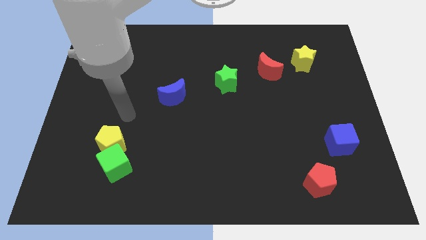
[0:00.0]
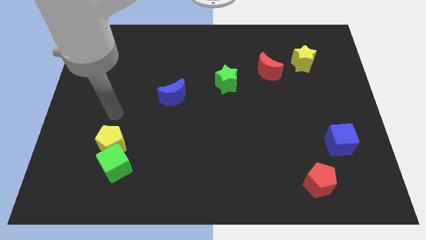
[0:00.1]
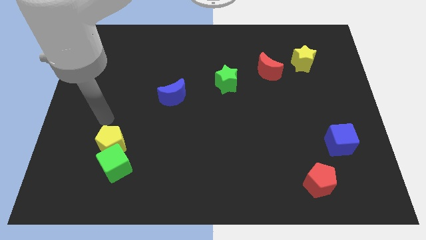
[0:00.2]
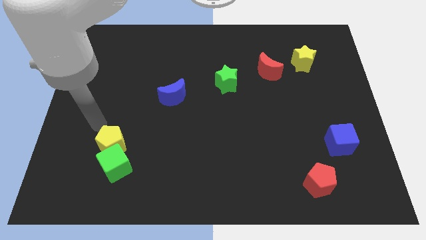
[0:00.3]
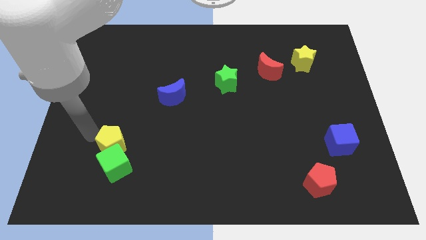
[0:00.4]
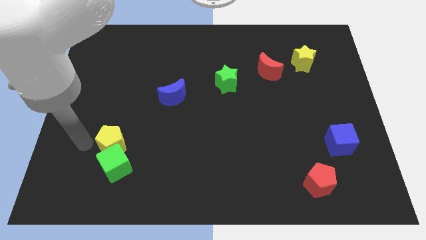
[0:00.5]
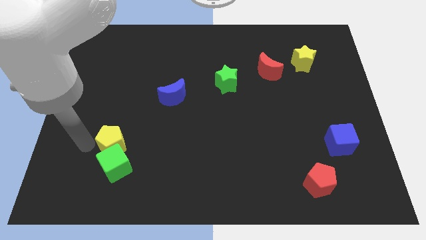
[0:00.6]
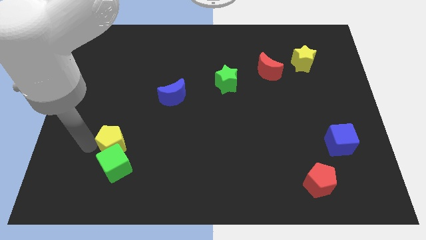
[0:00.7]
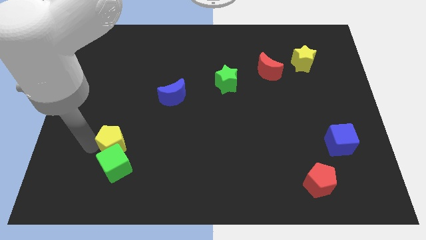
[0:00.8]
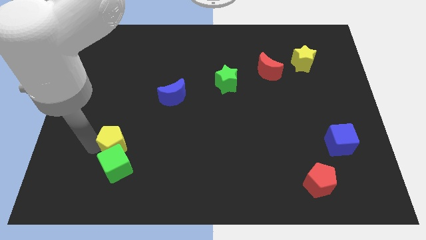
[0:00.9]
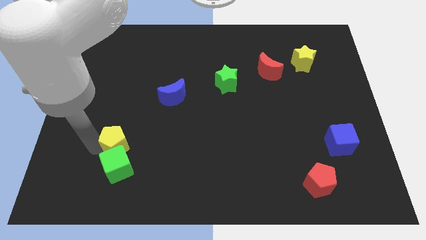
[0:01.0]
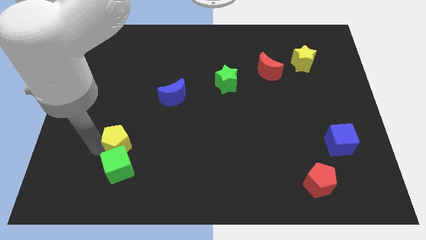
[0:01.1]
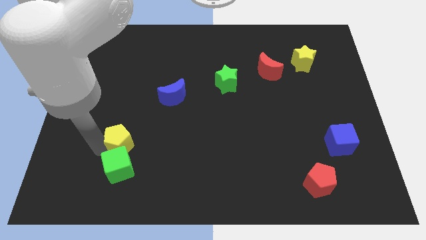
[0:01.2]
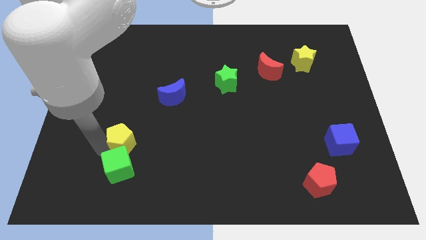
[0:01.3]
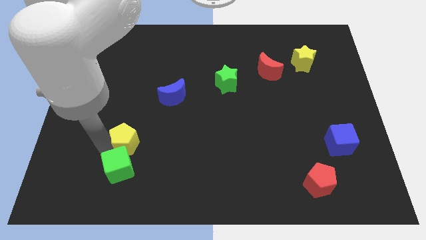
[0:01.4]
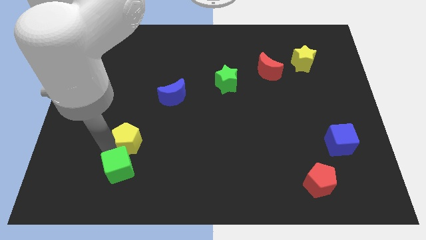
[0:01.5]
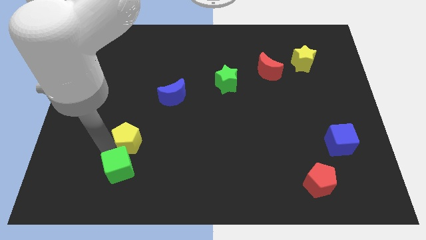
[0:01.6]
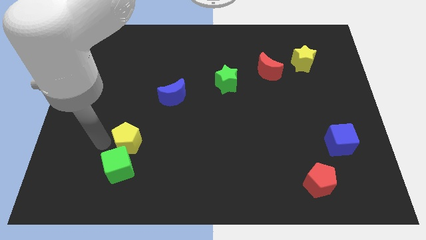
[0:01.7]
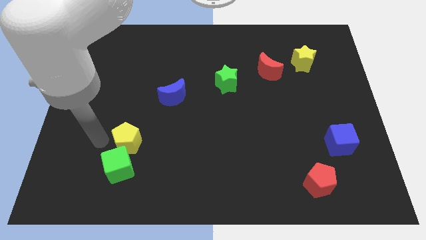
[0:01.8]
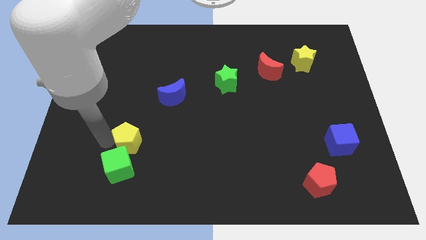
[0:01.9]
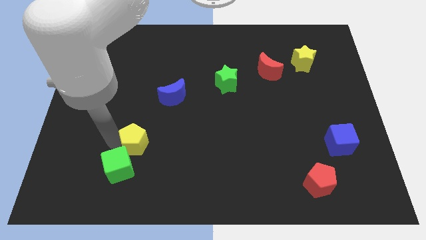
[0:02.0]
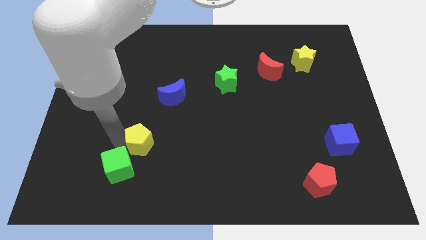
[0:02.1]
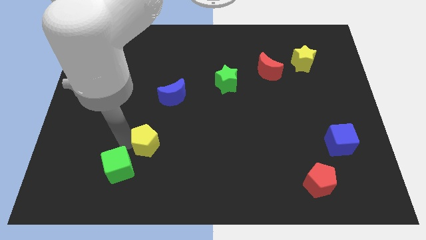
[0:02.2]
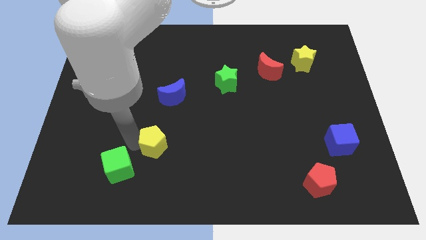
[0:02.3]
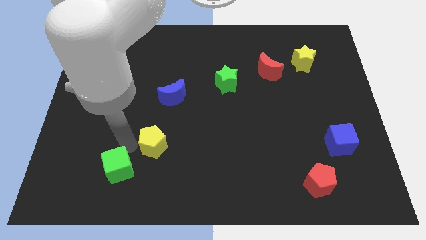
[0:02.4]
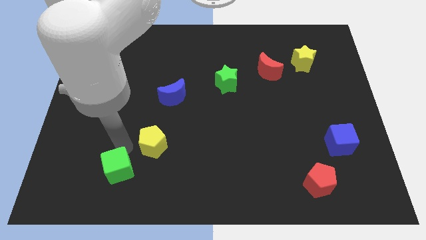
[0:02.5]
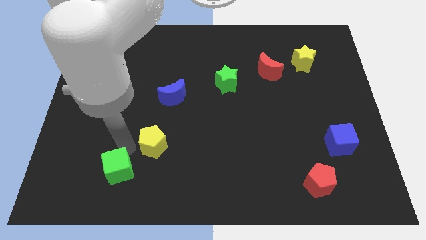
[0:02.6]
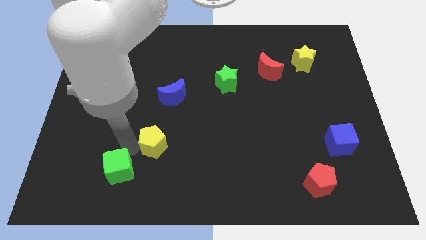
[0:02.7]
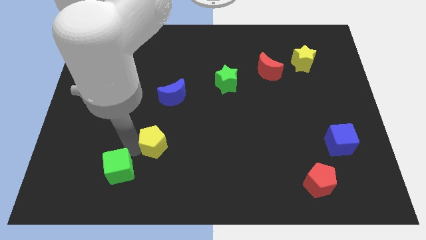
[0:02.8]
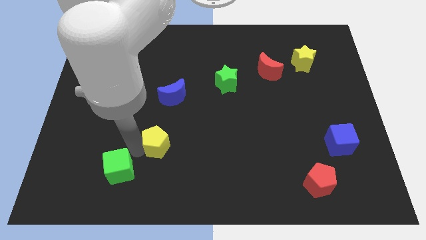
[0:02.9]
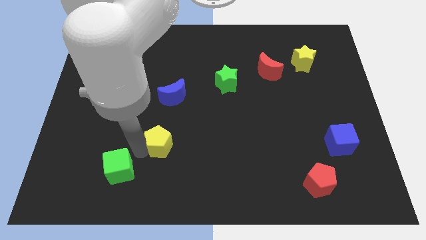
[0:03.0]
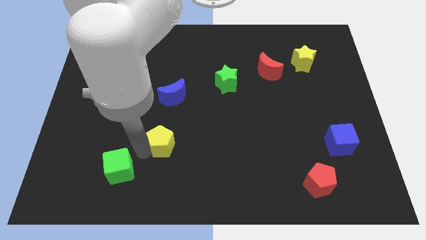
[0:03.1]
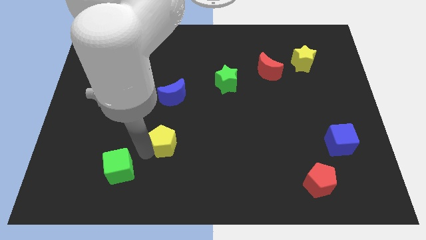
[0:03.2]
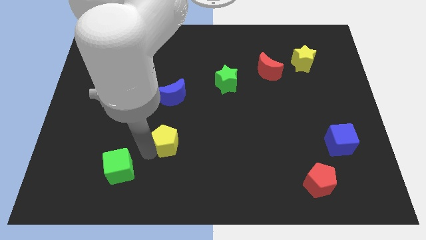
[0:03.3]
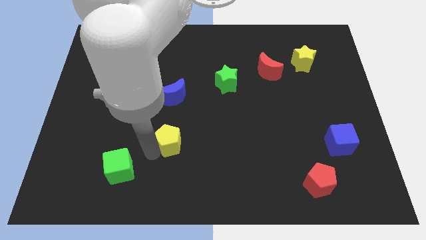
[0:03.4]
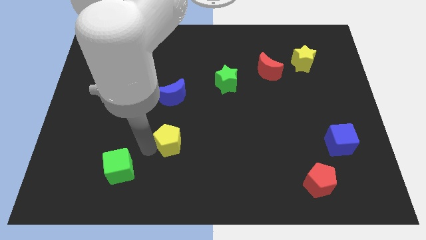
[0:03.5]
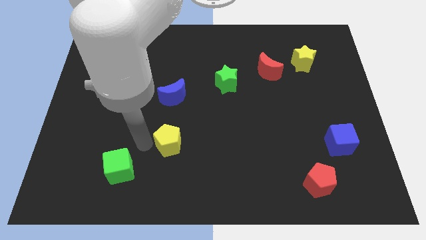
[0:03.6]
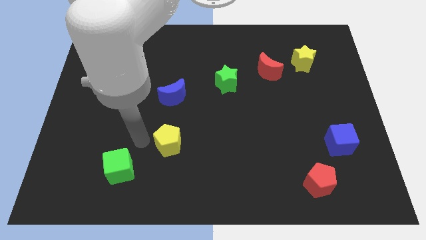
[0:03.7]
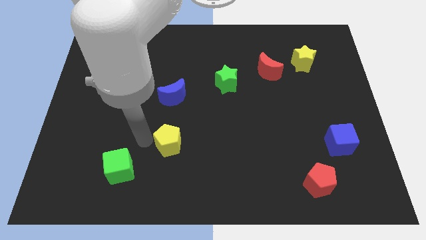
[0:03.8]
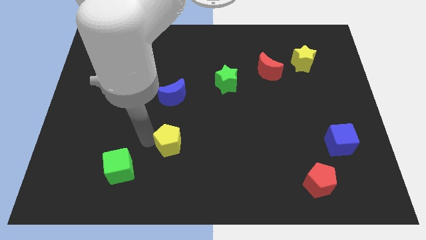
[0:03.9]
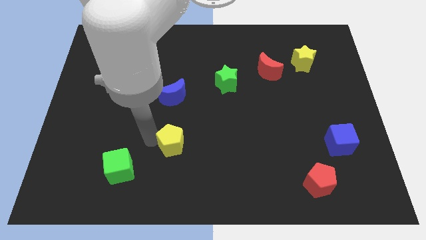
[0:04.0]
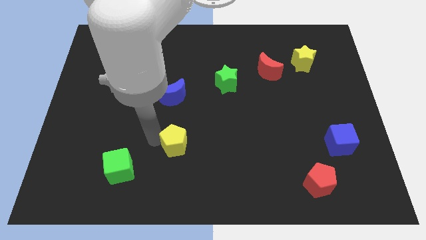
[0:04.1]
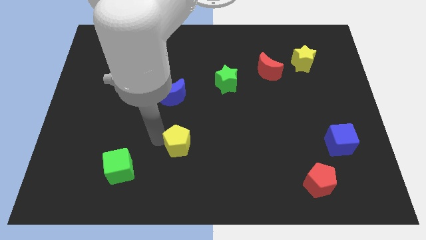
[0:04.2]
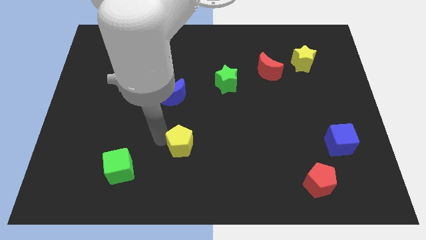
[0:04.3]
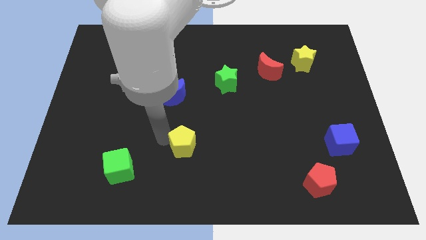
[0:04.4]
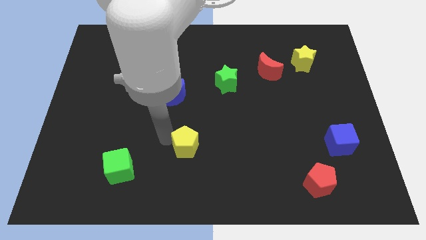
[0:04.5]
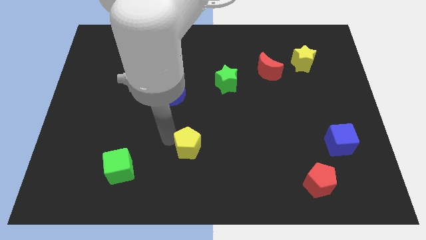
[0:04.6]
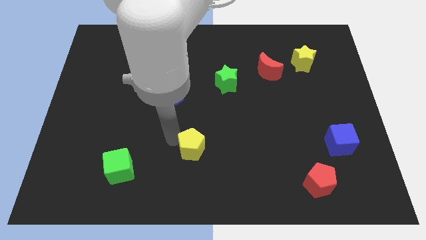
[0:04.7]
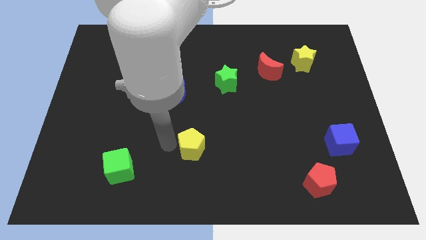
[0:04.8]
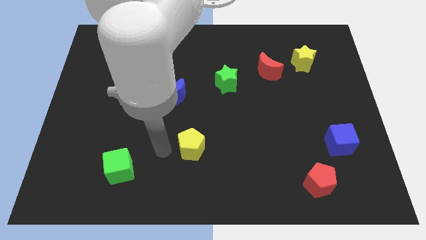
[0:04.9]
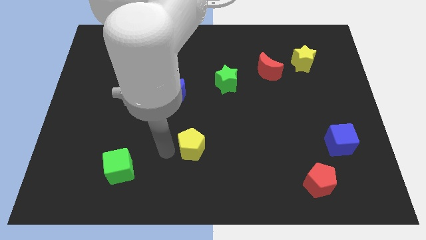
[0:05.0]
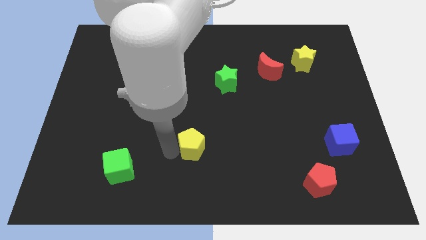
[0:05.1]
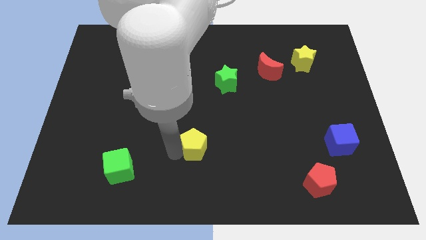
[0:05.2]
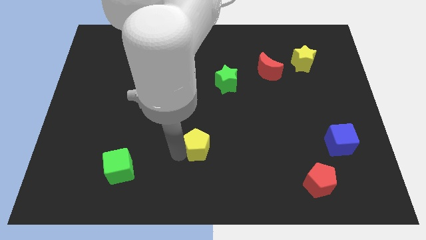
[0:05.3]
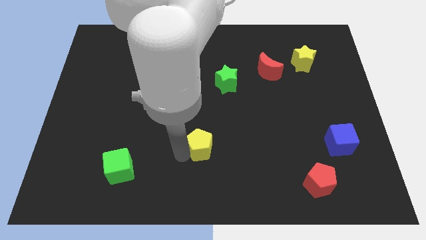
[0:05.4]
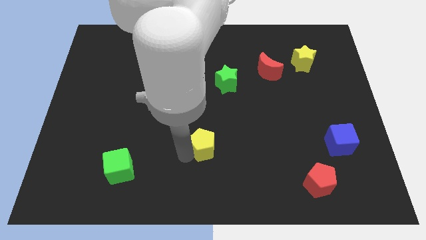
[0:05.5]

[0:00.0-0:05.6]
push the yellow pentagon to the right

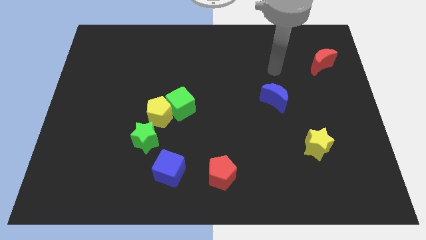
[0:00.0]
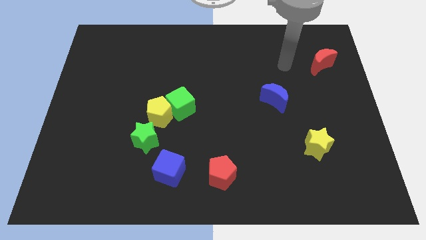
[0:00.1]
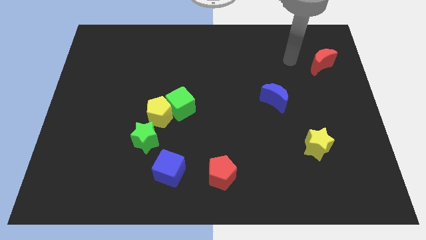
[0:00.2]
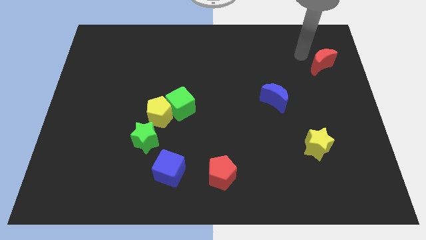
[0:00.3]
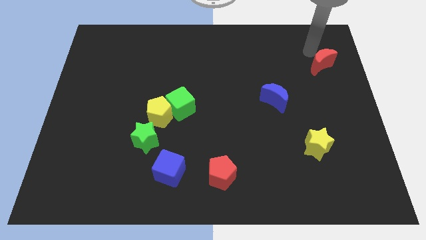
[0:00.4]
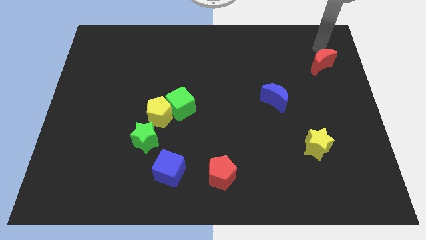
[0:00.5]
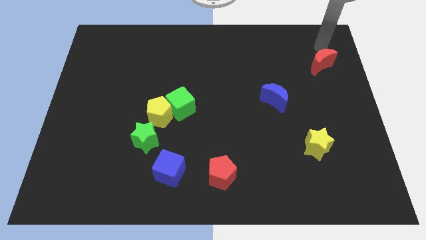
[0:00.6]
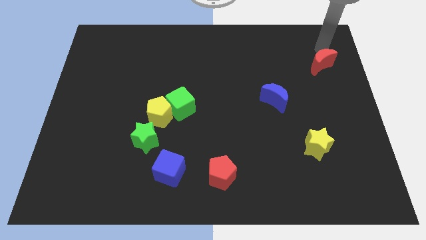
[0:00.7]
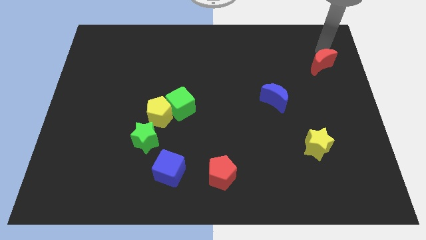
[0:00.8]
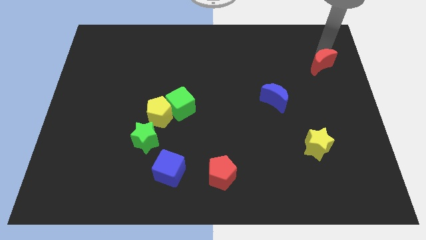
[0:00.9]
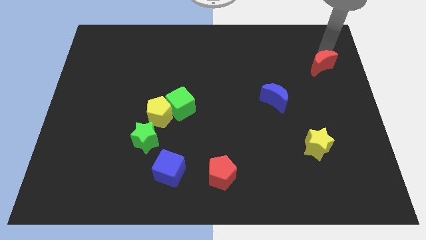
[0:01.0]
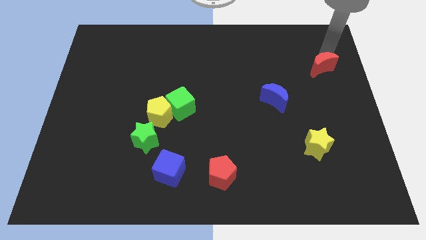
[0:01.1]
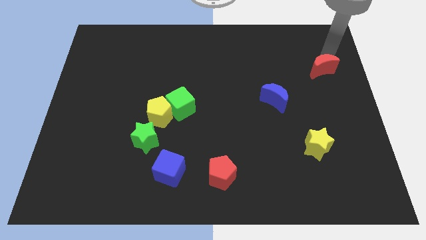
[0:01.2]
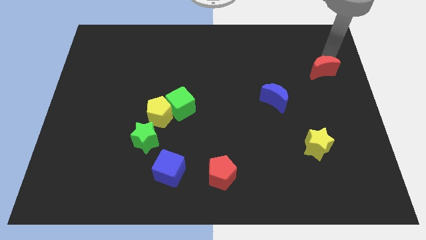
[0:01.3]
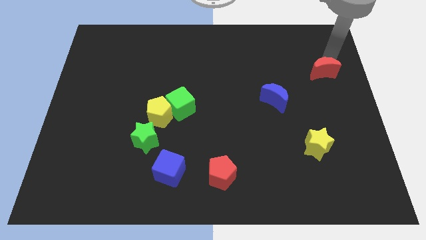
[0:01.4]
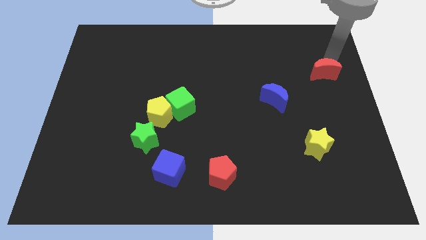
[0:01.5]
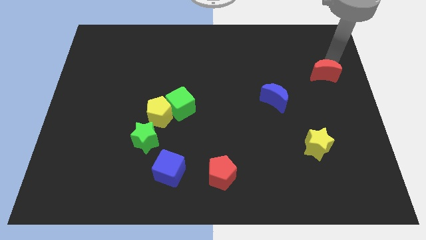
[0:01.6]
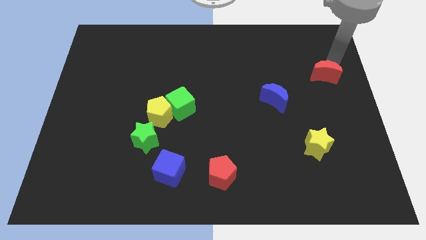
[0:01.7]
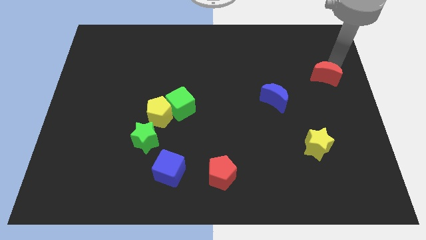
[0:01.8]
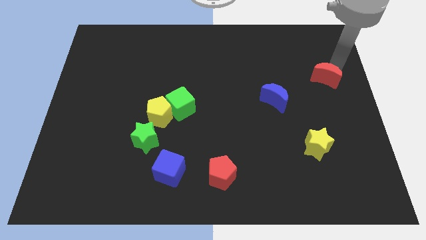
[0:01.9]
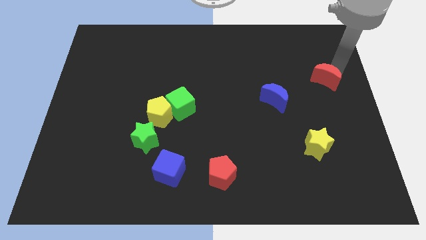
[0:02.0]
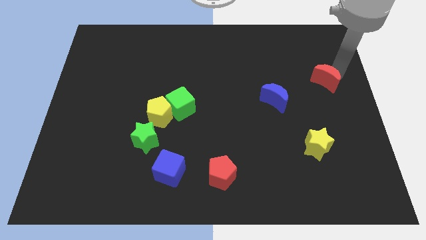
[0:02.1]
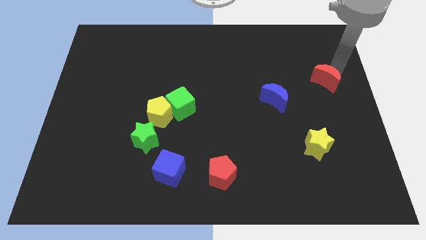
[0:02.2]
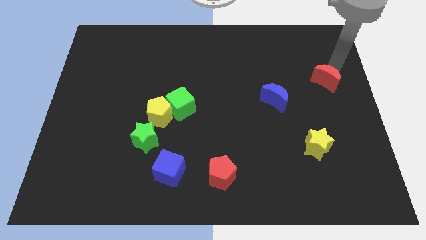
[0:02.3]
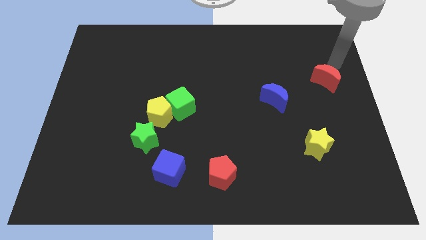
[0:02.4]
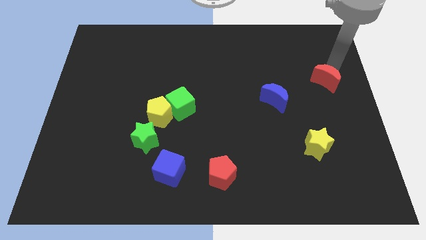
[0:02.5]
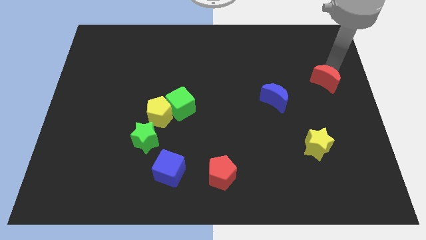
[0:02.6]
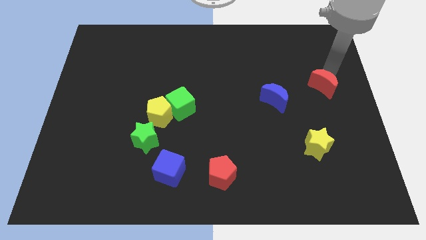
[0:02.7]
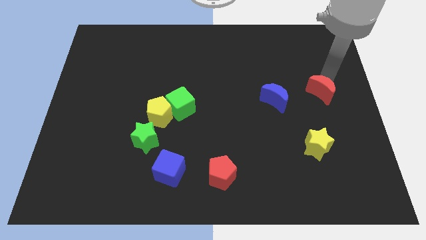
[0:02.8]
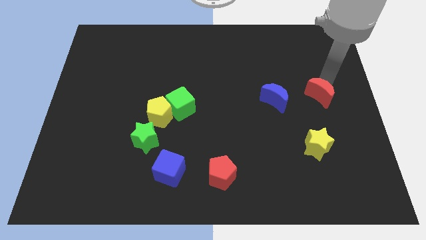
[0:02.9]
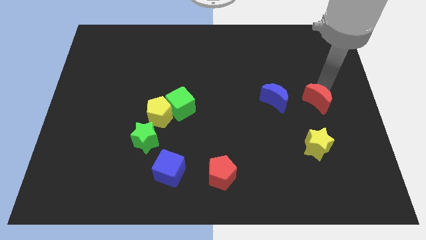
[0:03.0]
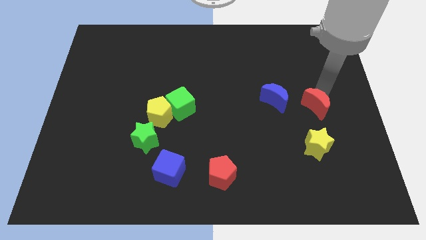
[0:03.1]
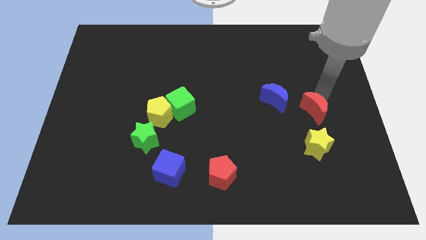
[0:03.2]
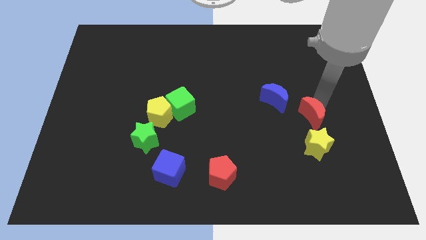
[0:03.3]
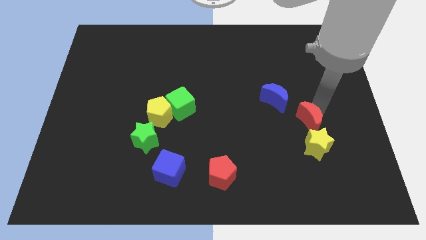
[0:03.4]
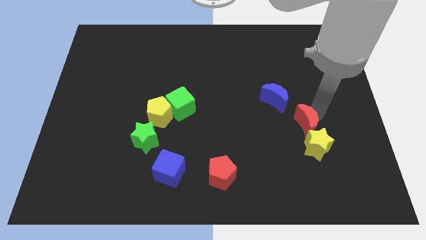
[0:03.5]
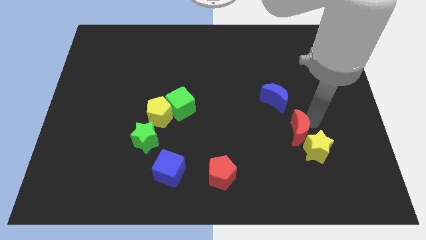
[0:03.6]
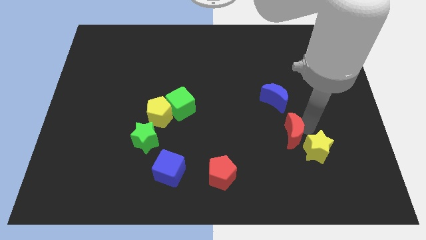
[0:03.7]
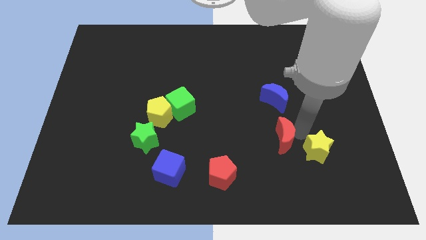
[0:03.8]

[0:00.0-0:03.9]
move the red moon downwards and to the left diagonally
